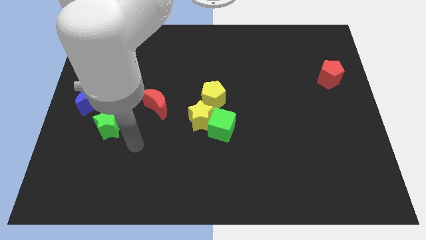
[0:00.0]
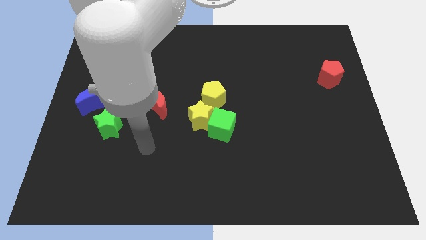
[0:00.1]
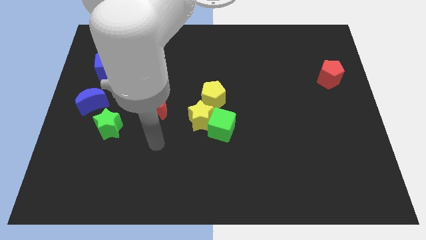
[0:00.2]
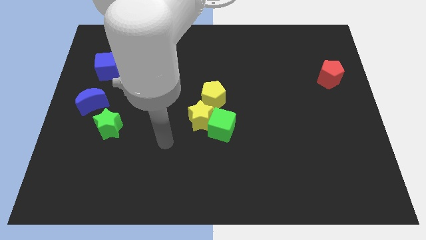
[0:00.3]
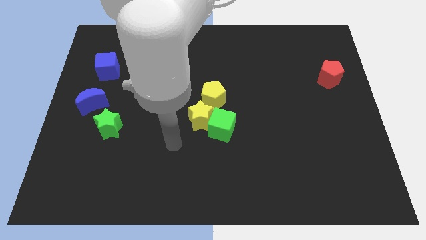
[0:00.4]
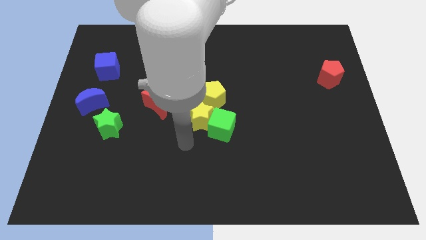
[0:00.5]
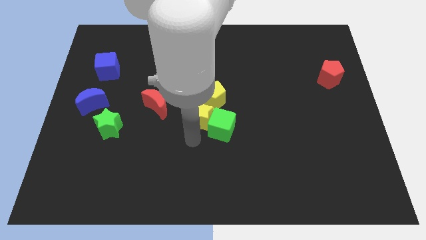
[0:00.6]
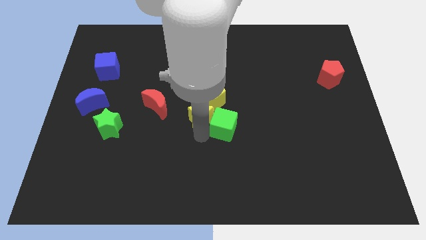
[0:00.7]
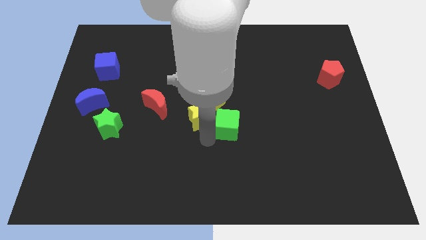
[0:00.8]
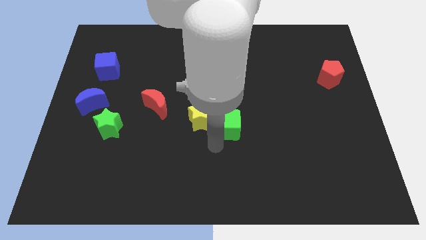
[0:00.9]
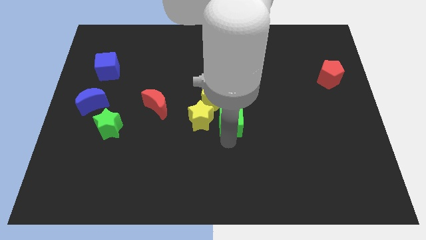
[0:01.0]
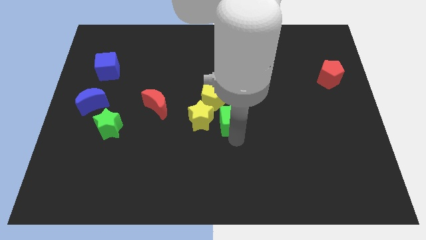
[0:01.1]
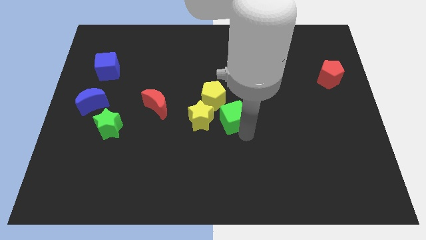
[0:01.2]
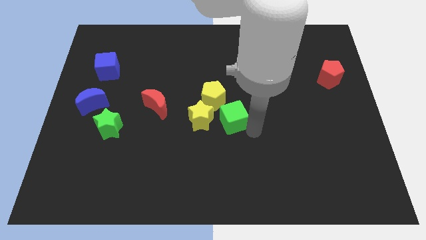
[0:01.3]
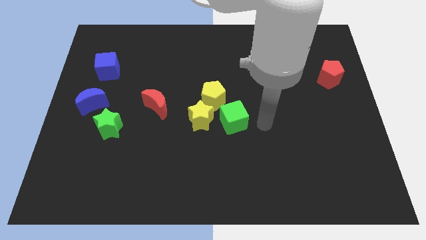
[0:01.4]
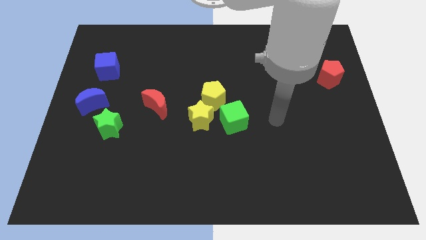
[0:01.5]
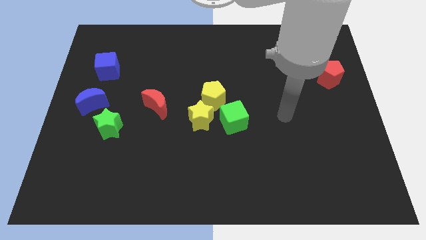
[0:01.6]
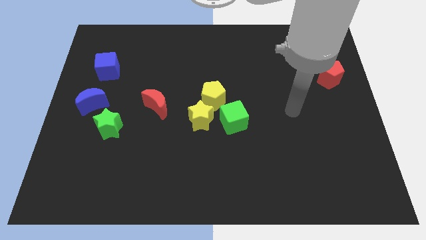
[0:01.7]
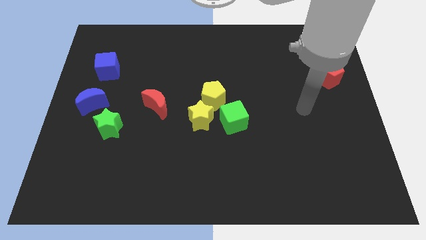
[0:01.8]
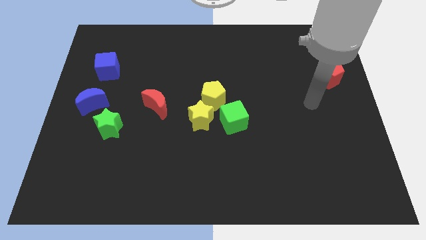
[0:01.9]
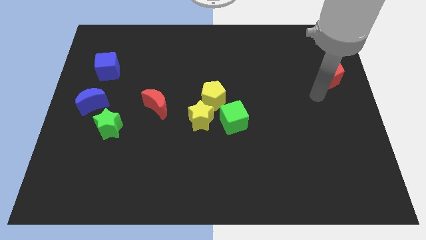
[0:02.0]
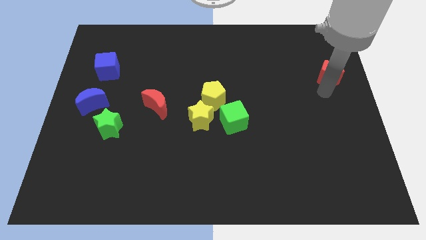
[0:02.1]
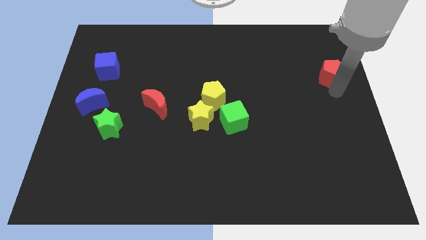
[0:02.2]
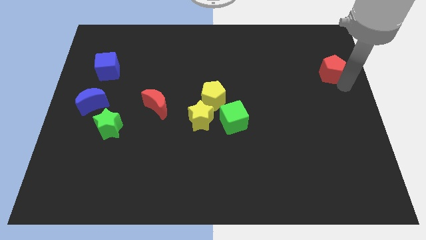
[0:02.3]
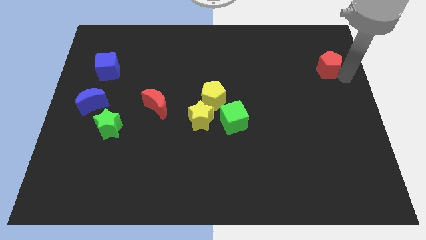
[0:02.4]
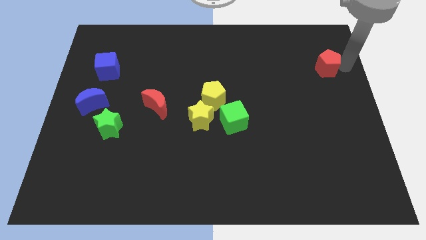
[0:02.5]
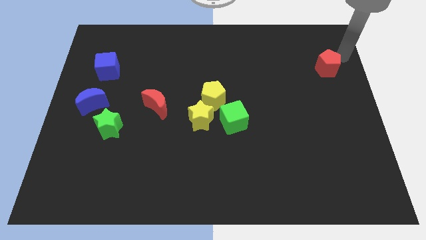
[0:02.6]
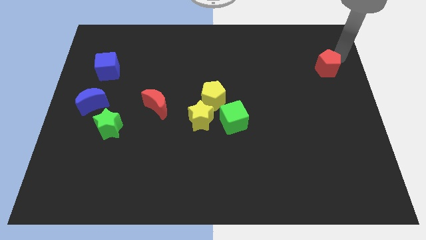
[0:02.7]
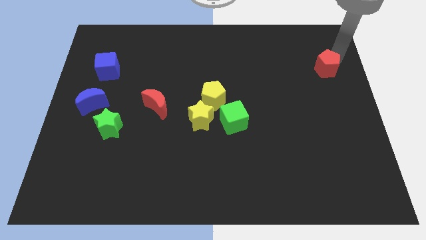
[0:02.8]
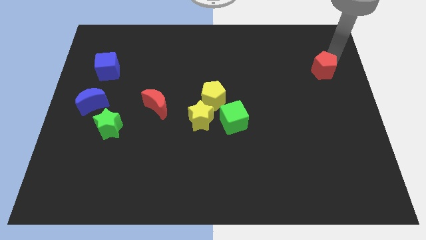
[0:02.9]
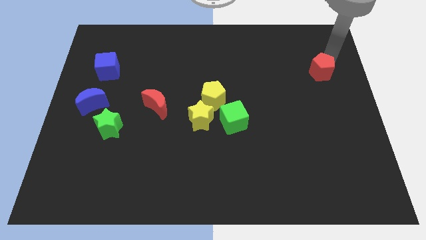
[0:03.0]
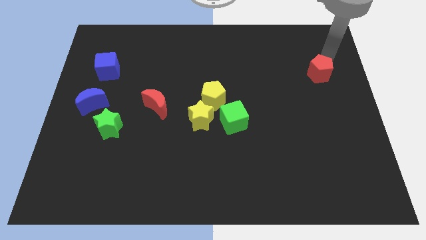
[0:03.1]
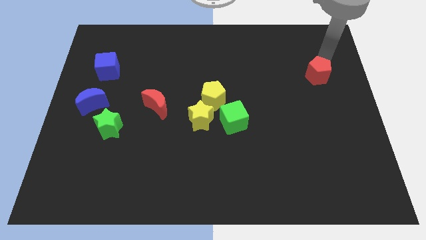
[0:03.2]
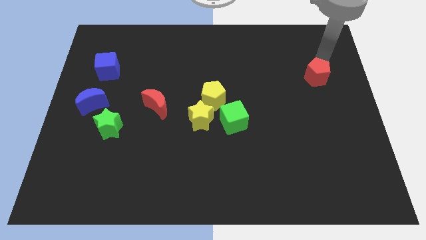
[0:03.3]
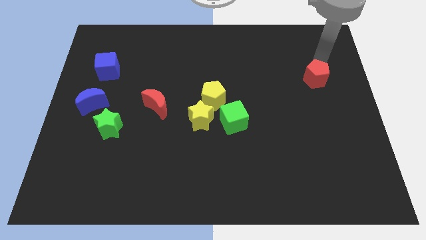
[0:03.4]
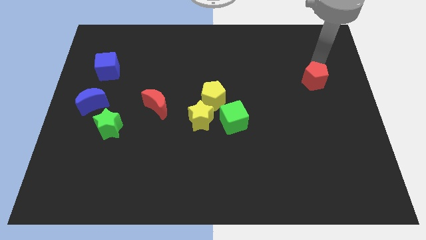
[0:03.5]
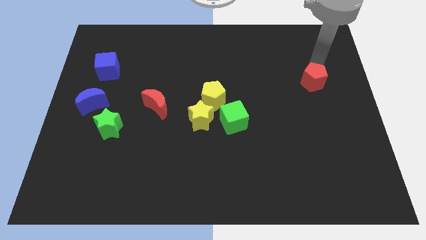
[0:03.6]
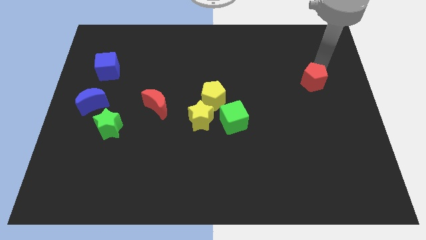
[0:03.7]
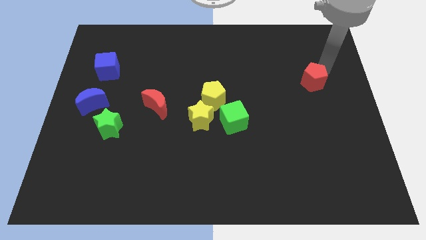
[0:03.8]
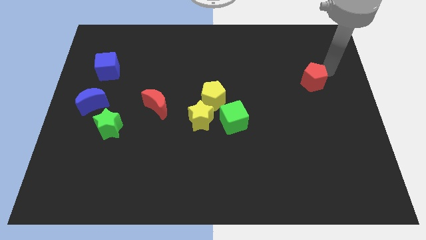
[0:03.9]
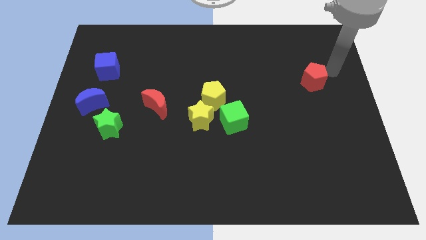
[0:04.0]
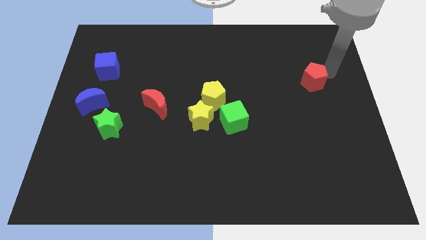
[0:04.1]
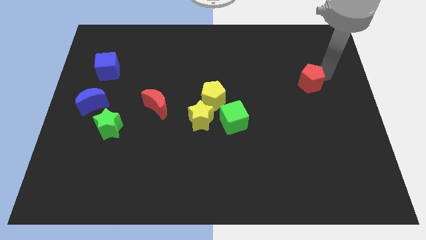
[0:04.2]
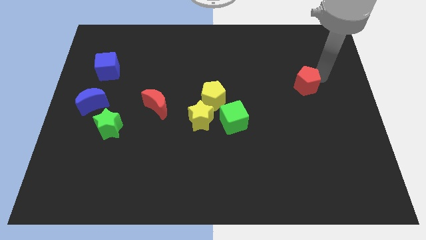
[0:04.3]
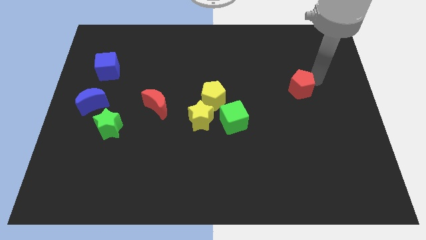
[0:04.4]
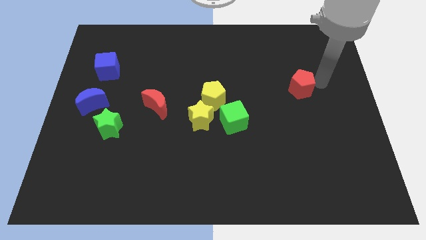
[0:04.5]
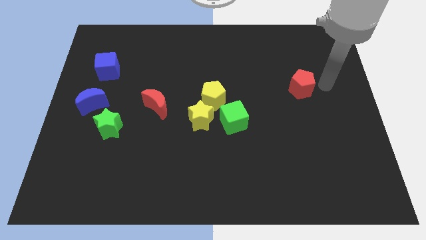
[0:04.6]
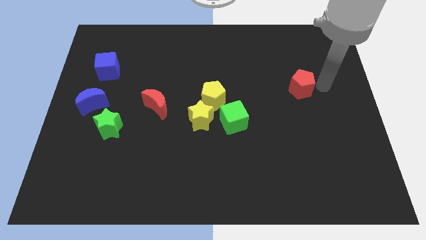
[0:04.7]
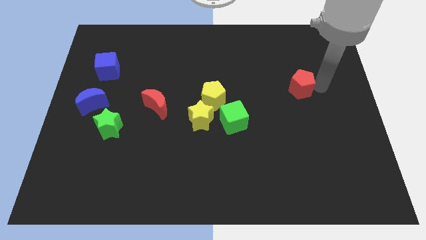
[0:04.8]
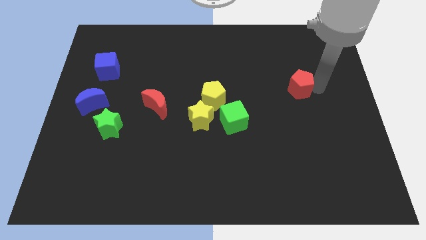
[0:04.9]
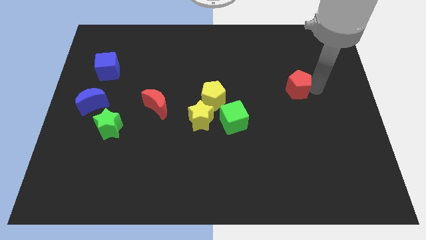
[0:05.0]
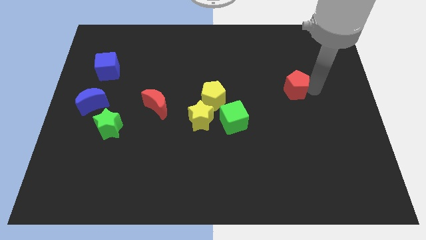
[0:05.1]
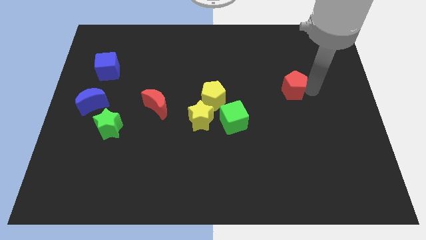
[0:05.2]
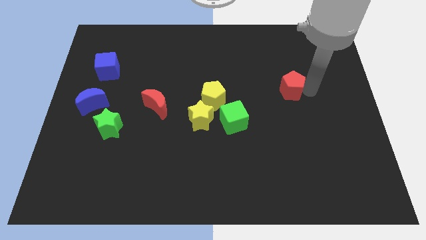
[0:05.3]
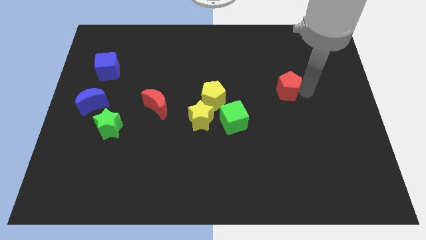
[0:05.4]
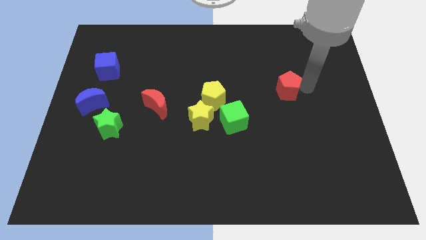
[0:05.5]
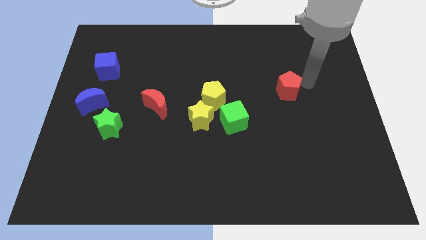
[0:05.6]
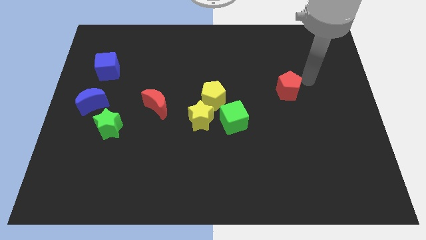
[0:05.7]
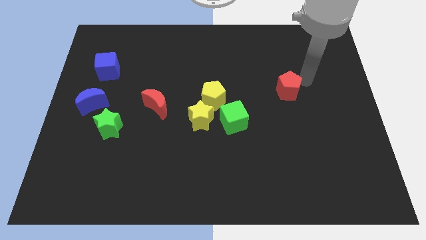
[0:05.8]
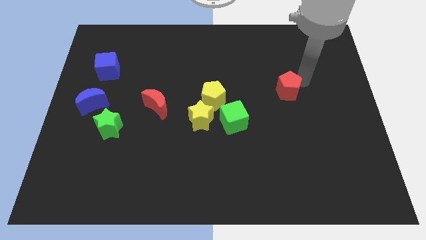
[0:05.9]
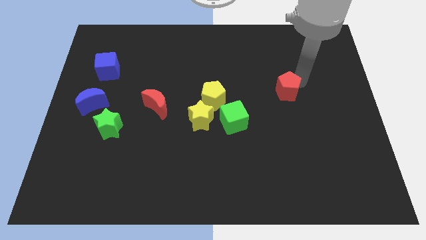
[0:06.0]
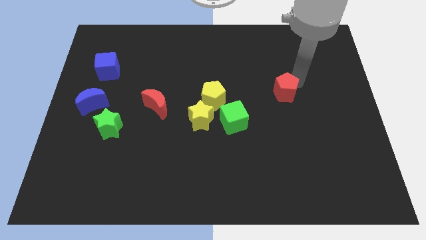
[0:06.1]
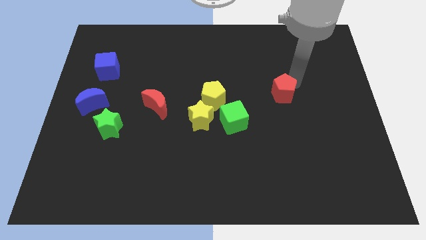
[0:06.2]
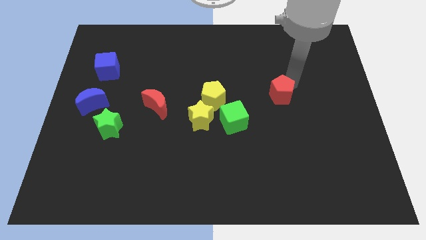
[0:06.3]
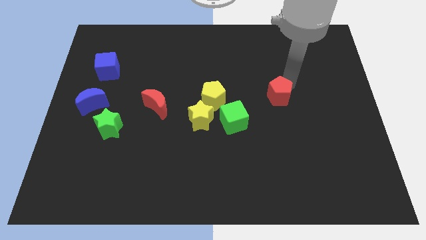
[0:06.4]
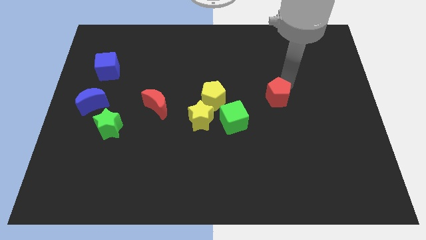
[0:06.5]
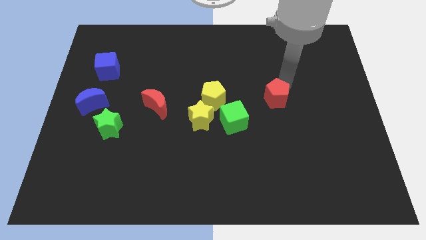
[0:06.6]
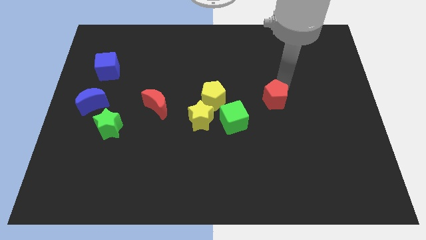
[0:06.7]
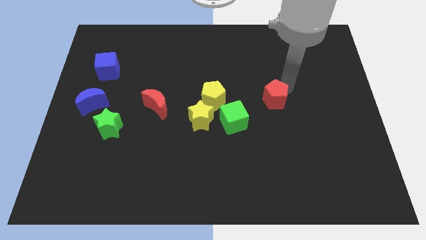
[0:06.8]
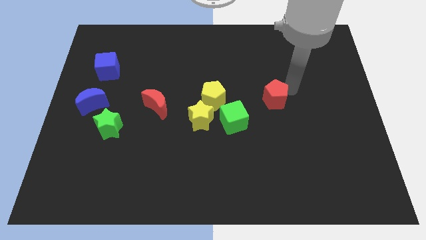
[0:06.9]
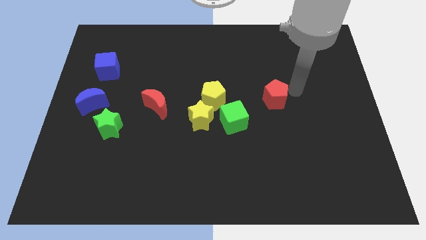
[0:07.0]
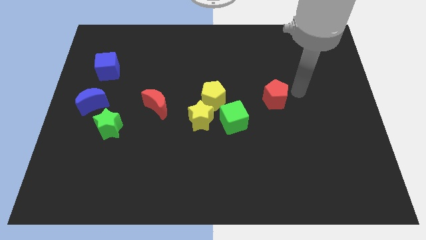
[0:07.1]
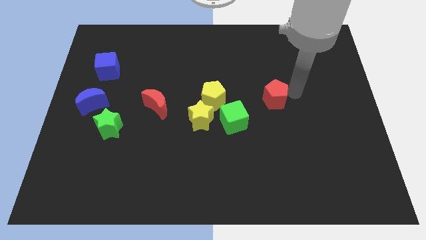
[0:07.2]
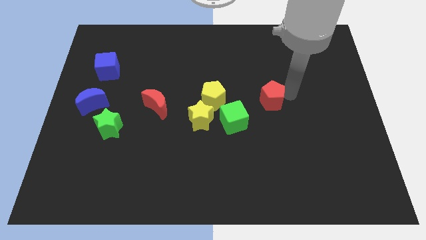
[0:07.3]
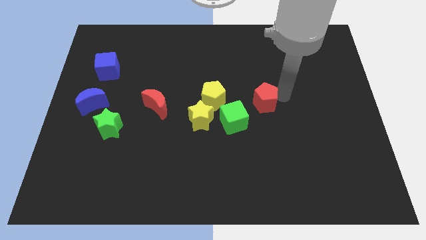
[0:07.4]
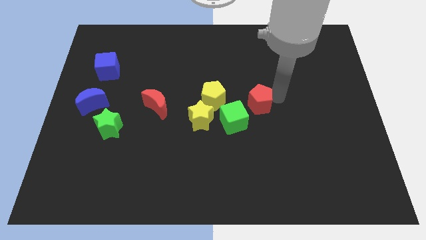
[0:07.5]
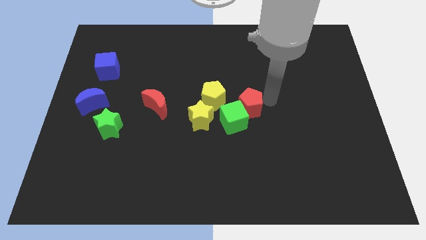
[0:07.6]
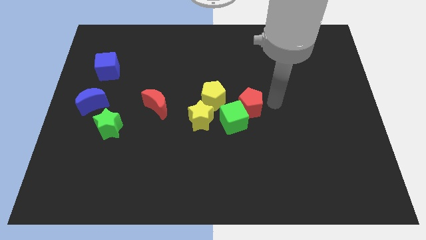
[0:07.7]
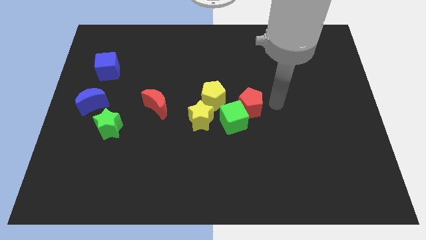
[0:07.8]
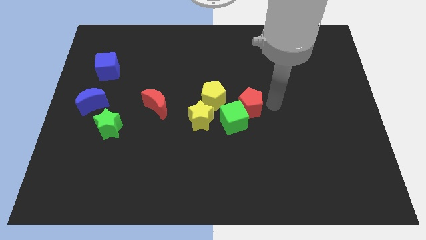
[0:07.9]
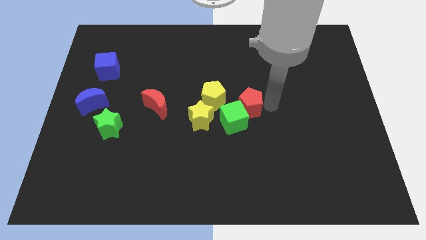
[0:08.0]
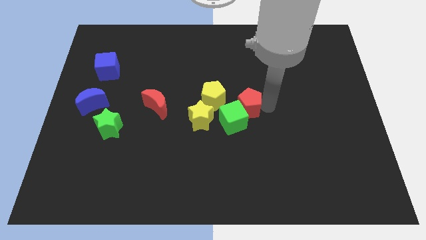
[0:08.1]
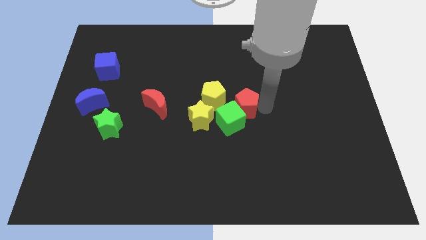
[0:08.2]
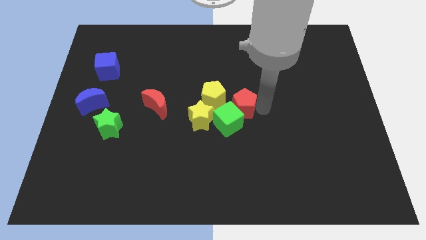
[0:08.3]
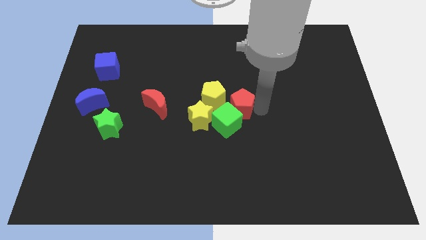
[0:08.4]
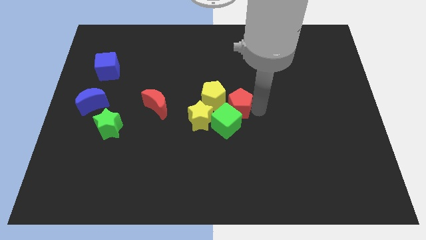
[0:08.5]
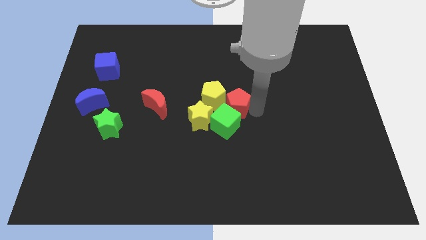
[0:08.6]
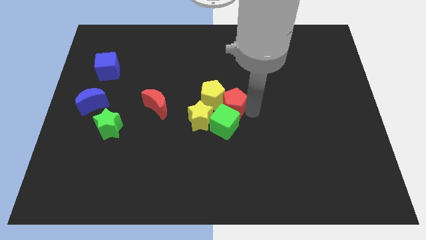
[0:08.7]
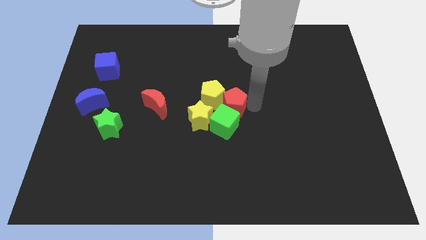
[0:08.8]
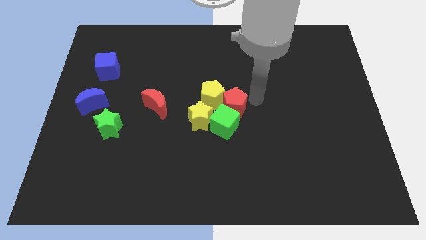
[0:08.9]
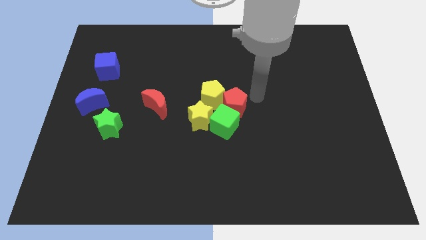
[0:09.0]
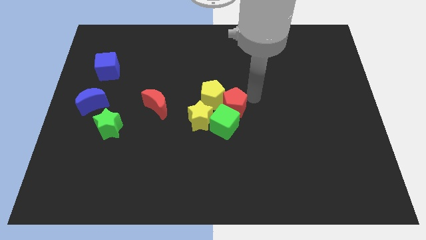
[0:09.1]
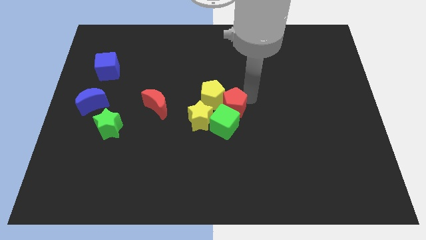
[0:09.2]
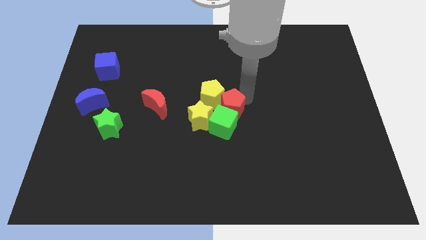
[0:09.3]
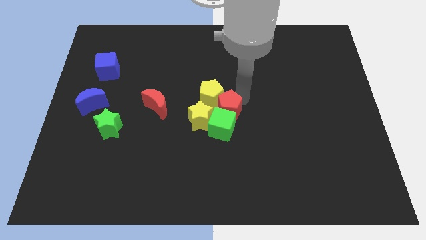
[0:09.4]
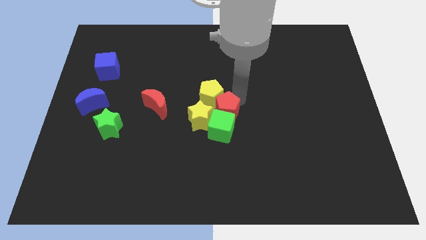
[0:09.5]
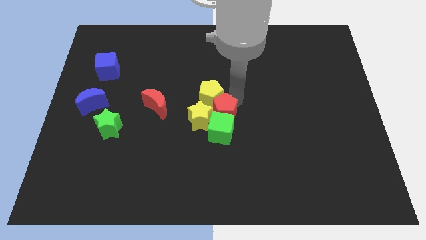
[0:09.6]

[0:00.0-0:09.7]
slide the red pentagon next to the yellow star
